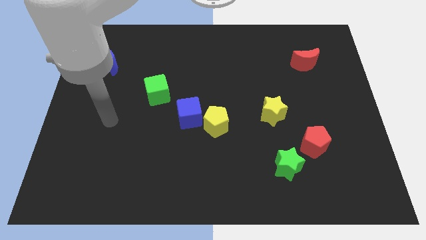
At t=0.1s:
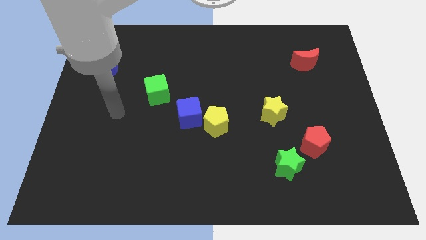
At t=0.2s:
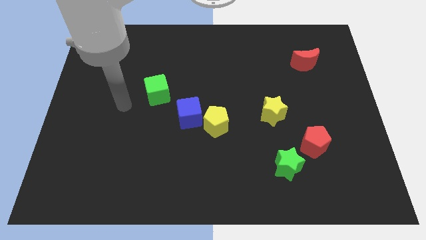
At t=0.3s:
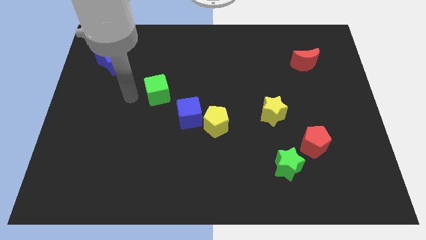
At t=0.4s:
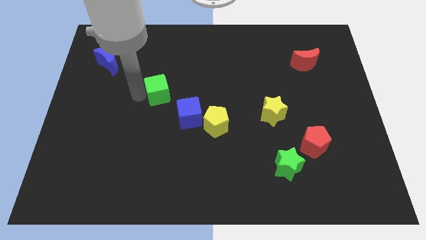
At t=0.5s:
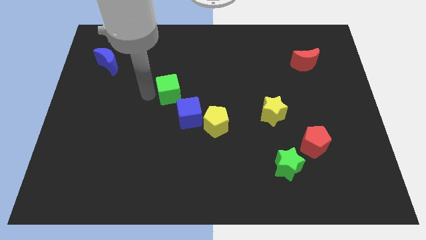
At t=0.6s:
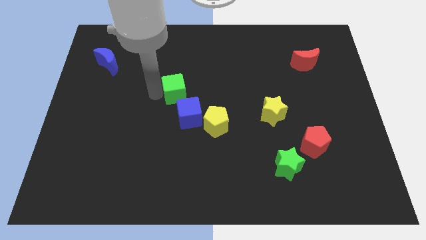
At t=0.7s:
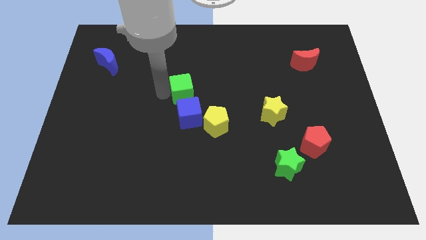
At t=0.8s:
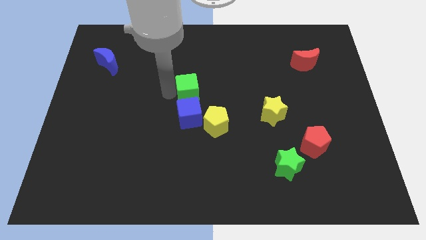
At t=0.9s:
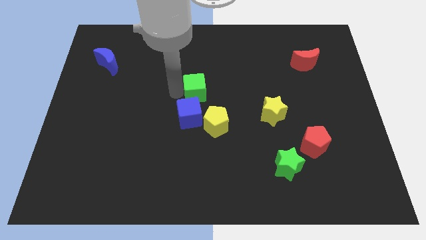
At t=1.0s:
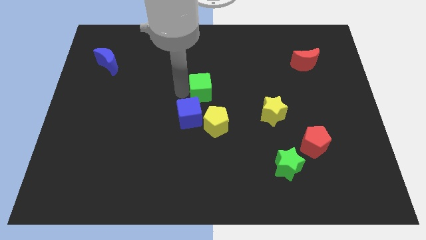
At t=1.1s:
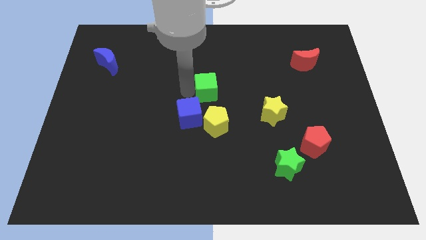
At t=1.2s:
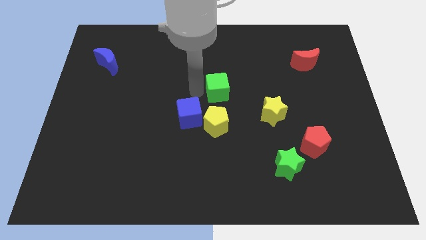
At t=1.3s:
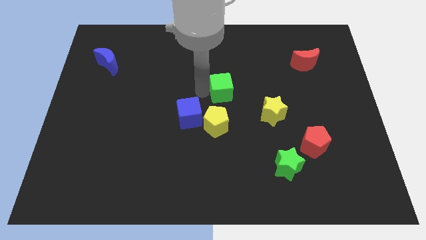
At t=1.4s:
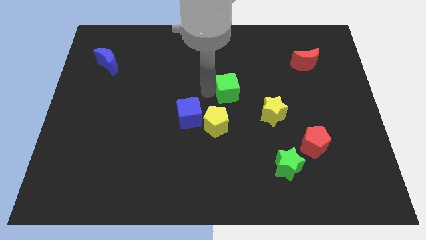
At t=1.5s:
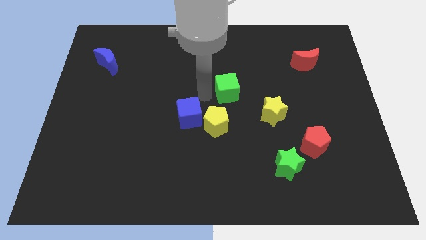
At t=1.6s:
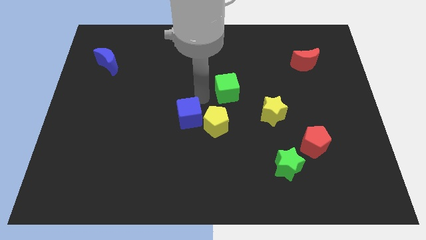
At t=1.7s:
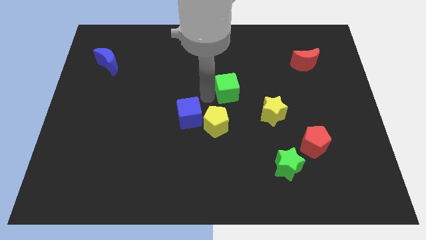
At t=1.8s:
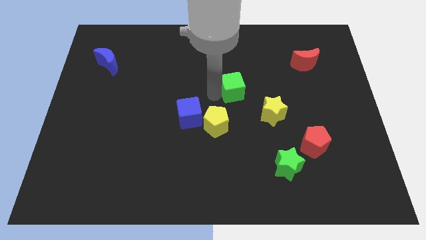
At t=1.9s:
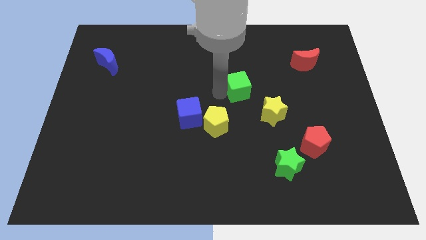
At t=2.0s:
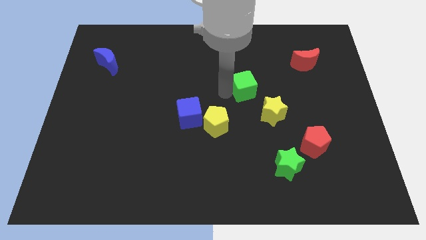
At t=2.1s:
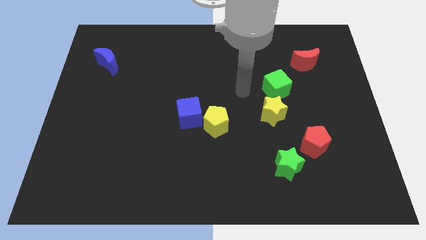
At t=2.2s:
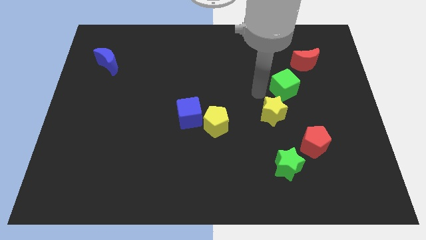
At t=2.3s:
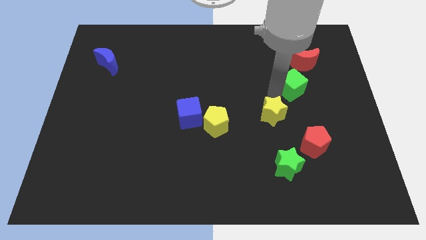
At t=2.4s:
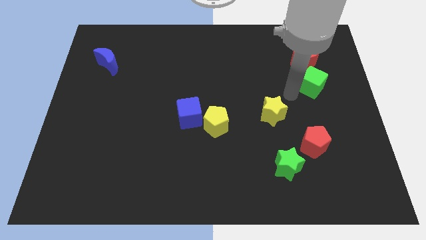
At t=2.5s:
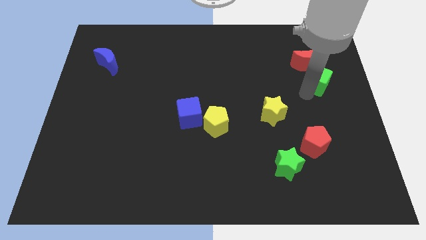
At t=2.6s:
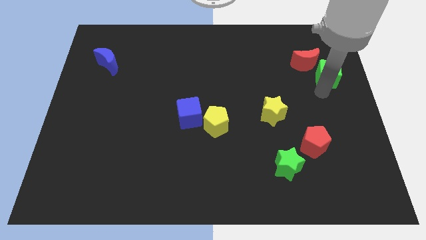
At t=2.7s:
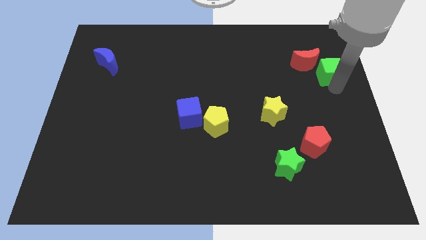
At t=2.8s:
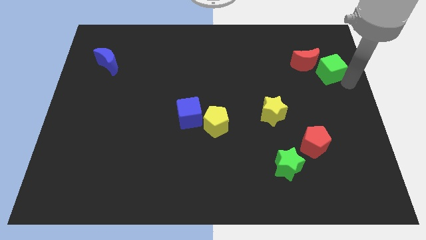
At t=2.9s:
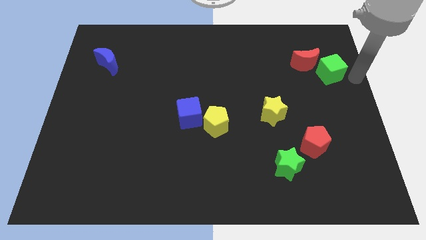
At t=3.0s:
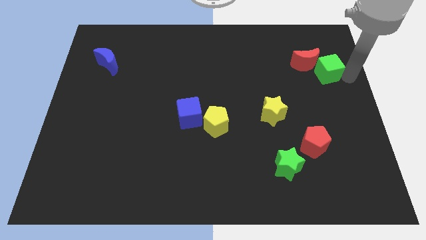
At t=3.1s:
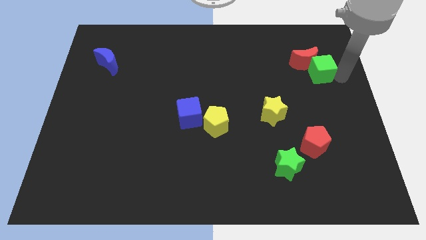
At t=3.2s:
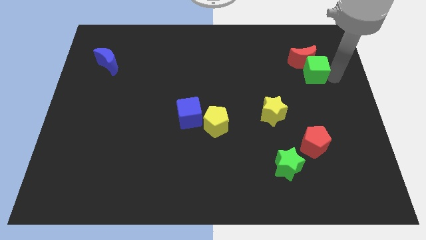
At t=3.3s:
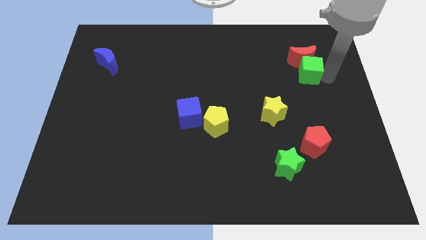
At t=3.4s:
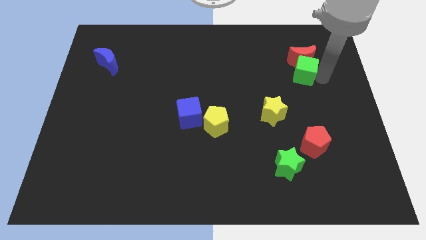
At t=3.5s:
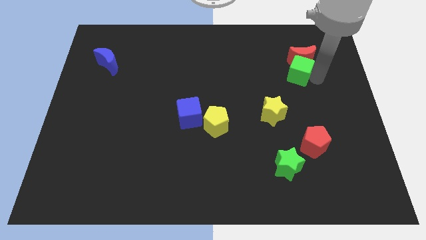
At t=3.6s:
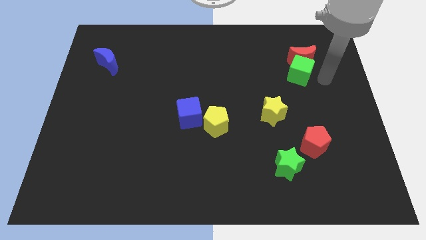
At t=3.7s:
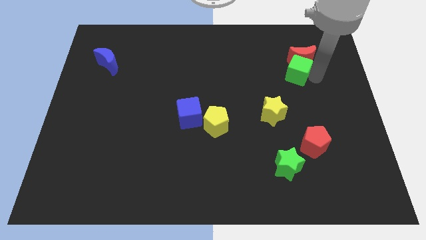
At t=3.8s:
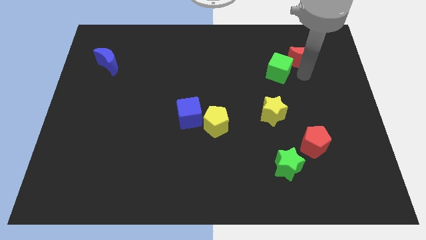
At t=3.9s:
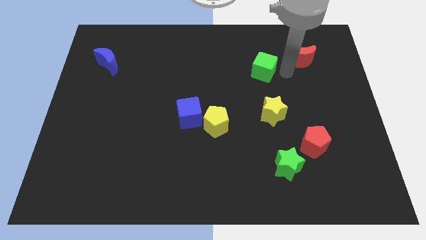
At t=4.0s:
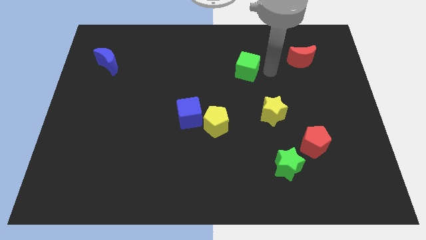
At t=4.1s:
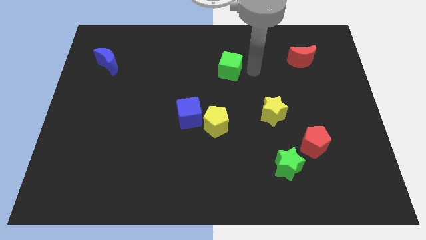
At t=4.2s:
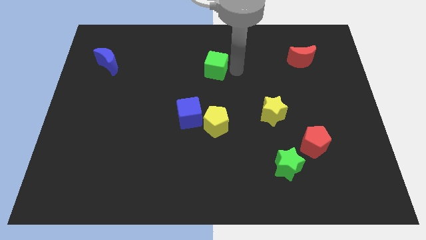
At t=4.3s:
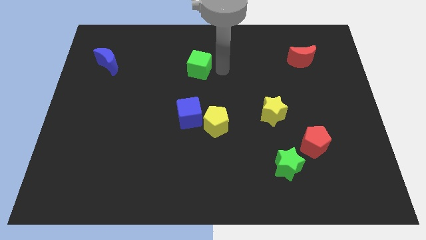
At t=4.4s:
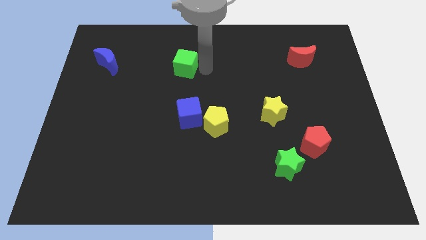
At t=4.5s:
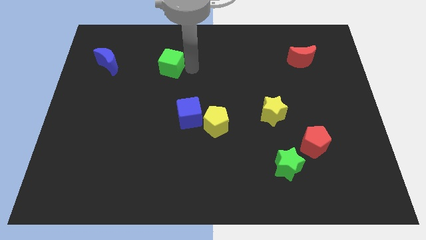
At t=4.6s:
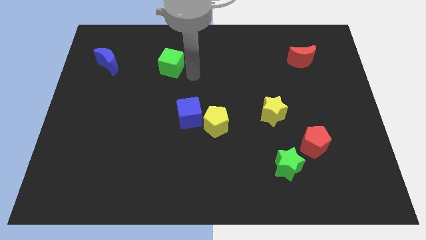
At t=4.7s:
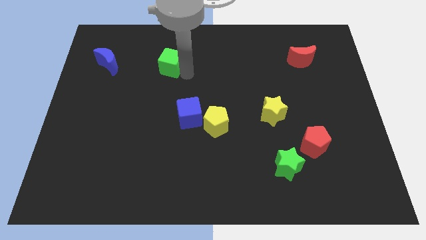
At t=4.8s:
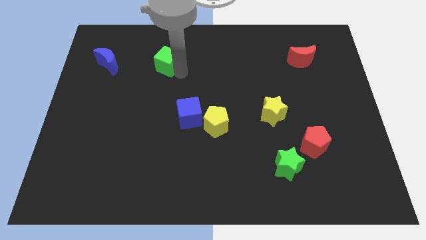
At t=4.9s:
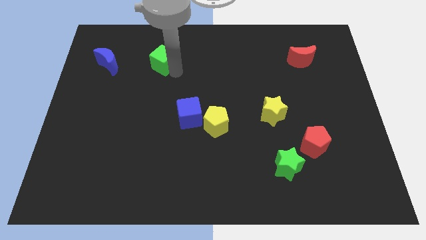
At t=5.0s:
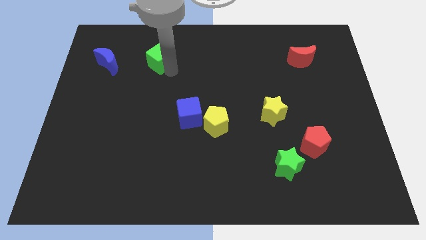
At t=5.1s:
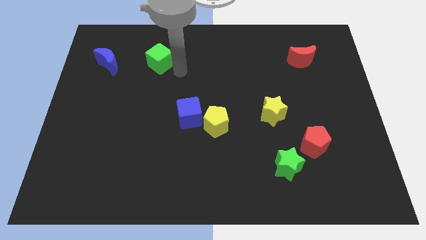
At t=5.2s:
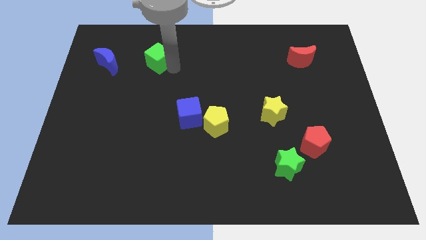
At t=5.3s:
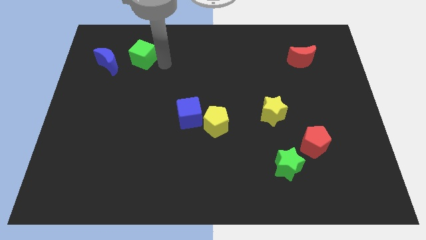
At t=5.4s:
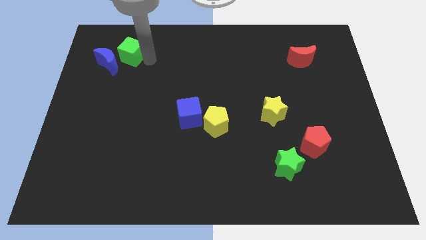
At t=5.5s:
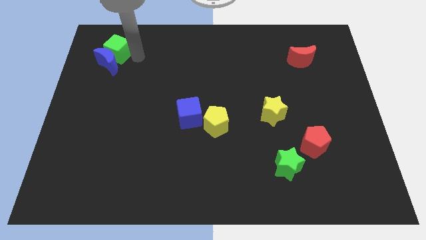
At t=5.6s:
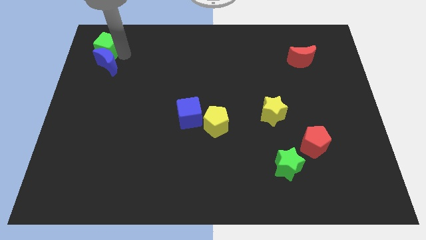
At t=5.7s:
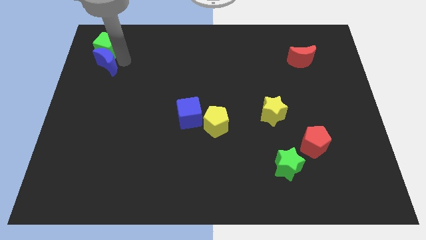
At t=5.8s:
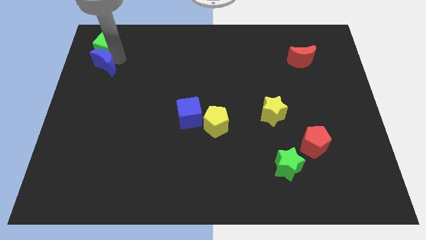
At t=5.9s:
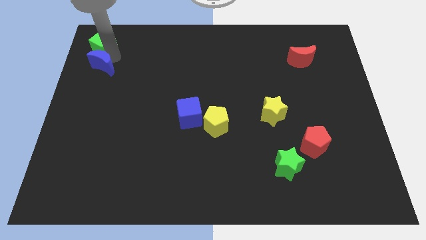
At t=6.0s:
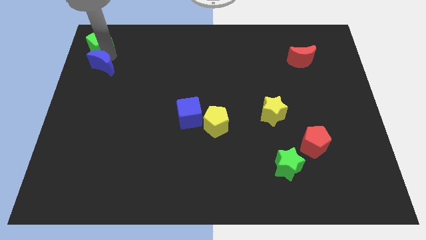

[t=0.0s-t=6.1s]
slide the green cube to the top left of the board

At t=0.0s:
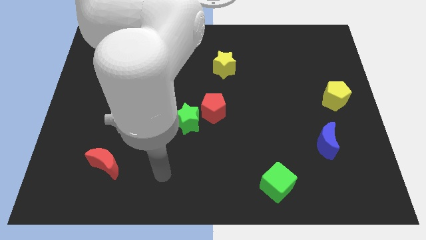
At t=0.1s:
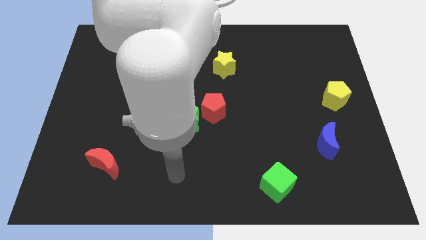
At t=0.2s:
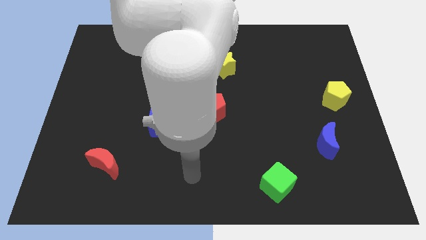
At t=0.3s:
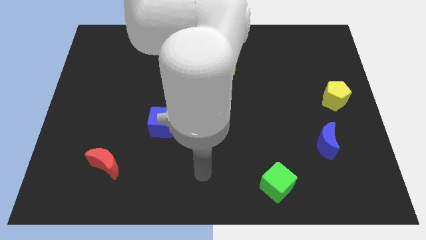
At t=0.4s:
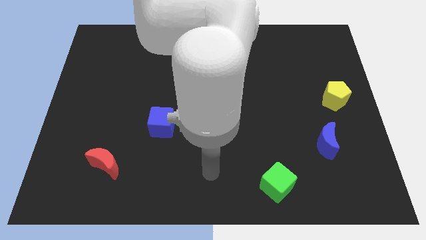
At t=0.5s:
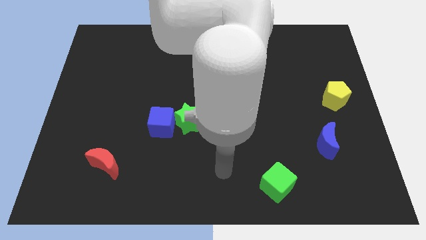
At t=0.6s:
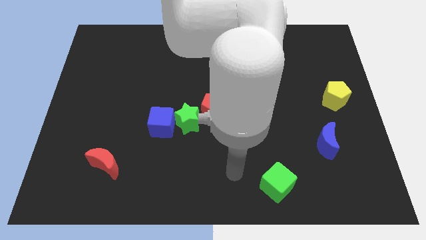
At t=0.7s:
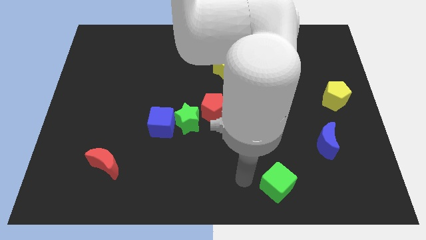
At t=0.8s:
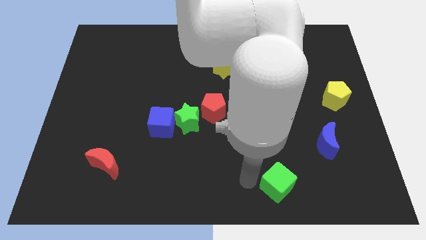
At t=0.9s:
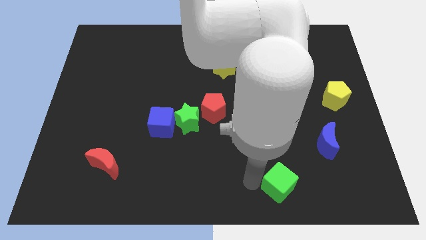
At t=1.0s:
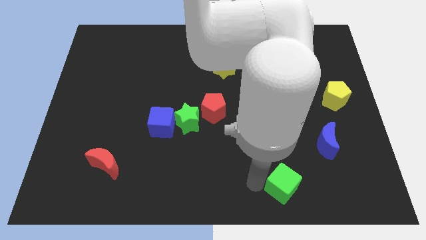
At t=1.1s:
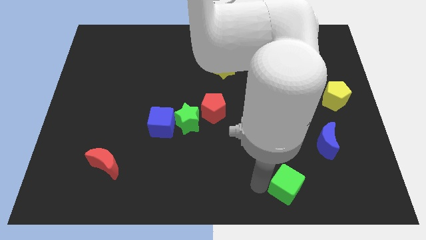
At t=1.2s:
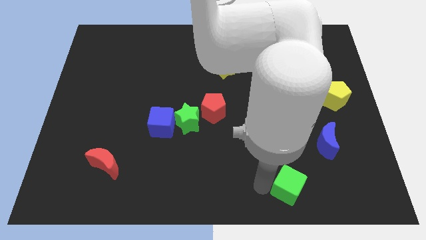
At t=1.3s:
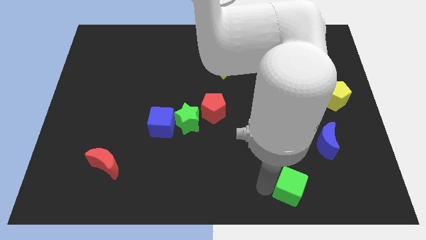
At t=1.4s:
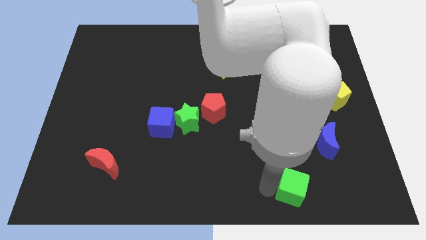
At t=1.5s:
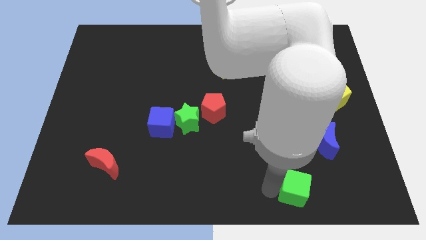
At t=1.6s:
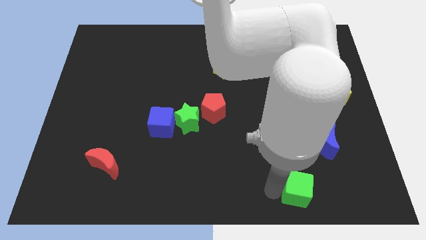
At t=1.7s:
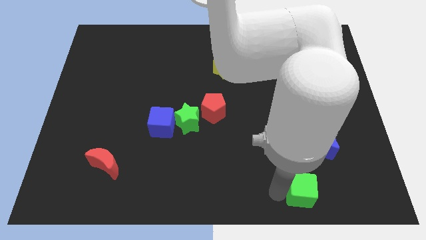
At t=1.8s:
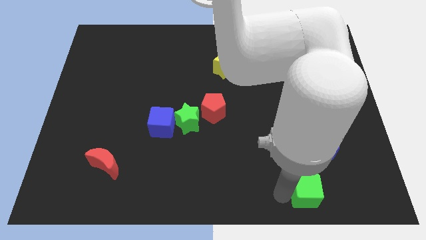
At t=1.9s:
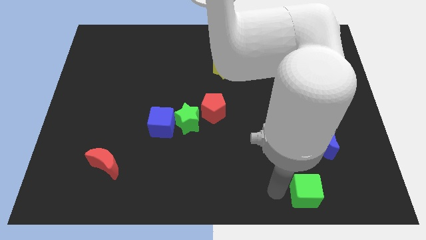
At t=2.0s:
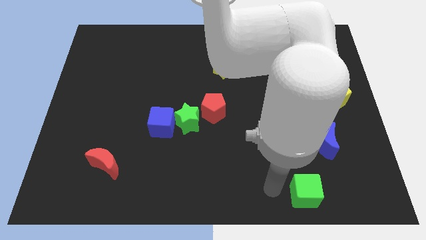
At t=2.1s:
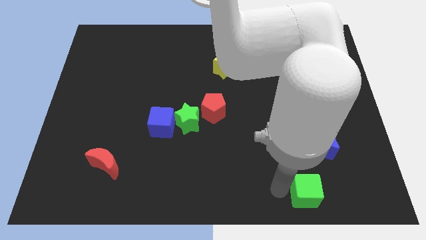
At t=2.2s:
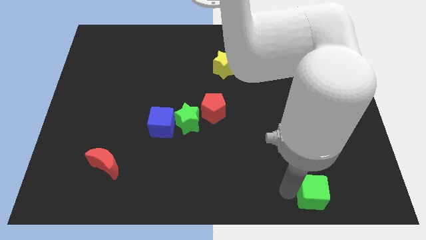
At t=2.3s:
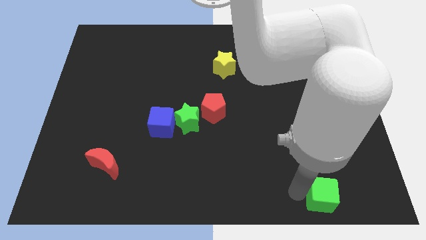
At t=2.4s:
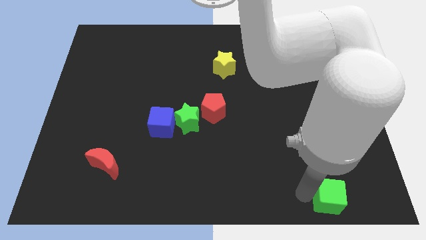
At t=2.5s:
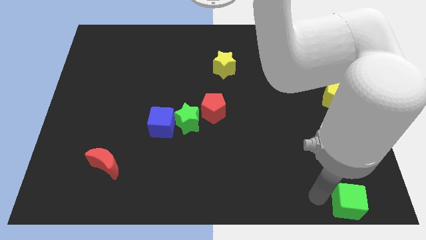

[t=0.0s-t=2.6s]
slide the green cube to the bottom right corner
